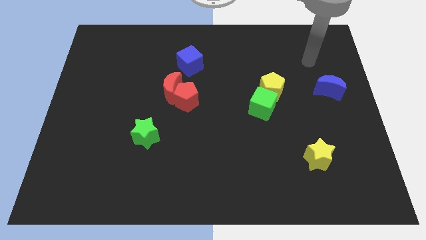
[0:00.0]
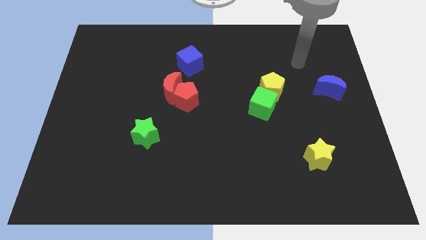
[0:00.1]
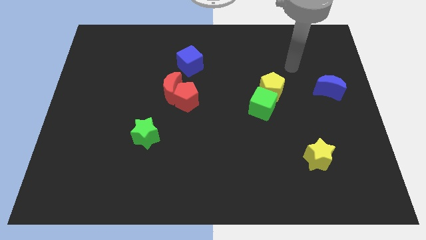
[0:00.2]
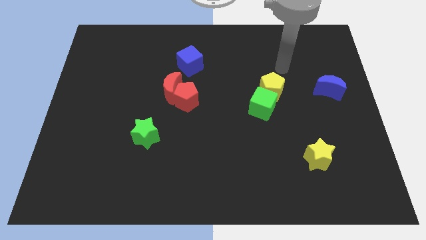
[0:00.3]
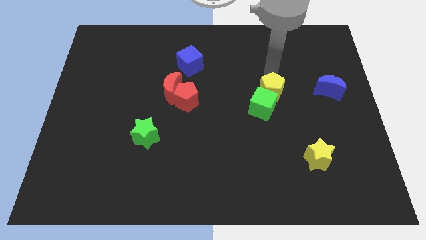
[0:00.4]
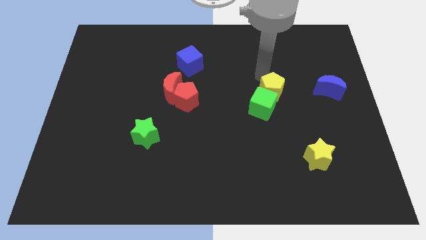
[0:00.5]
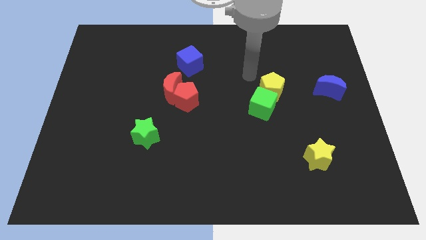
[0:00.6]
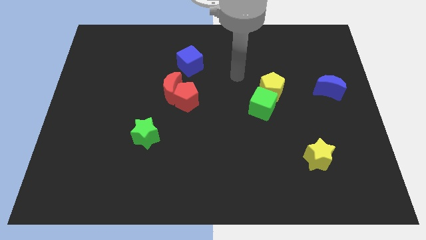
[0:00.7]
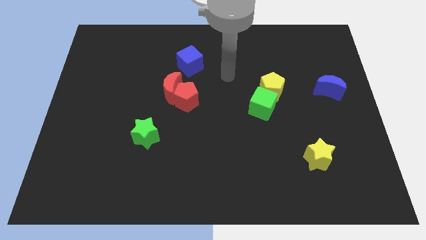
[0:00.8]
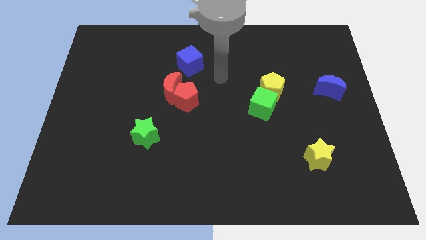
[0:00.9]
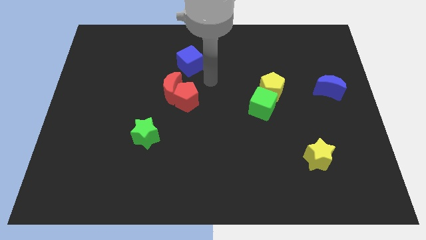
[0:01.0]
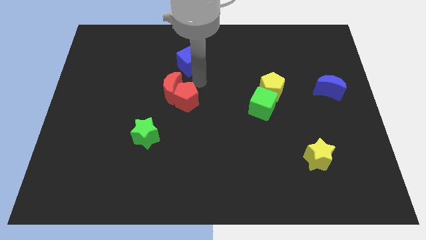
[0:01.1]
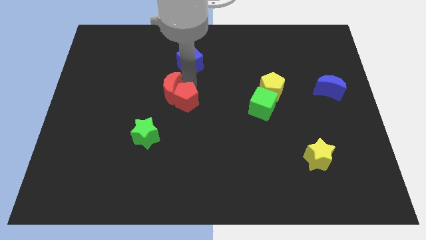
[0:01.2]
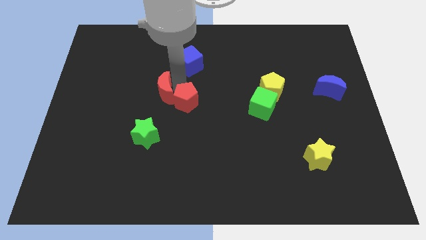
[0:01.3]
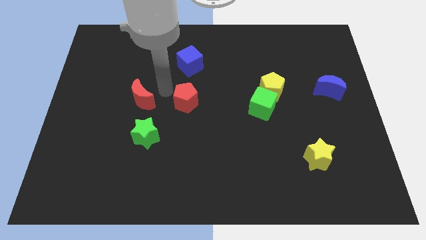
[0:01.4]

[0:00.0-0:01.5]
move the red pentagon away from the red moon

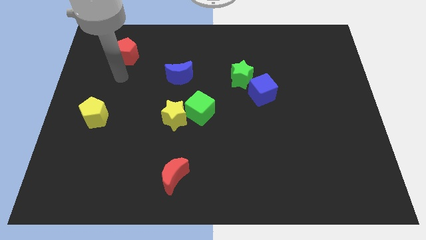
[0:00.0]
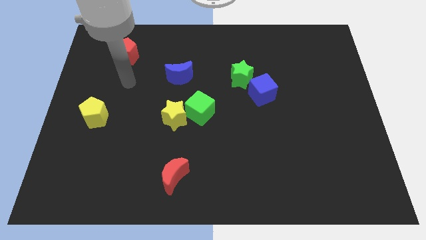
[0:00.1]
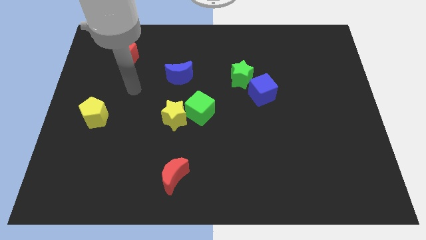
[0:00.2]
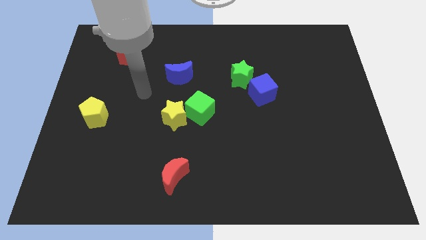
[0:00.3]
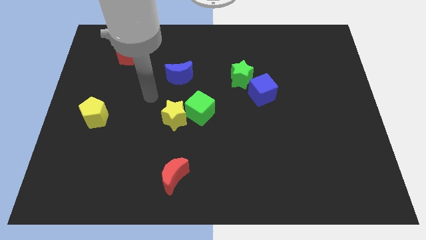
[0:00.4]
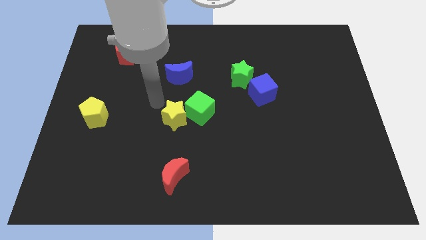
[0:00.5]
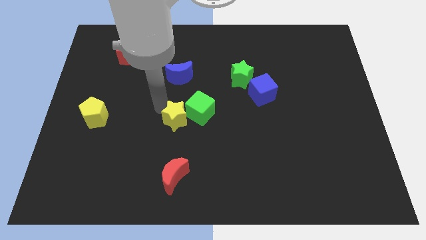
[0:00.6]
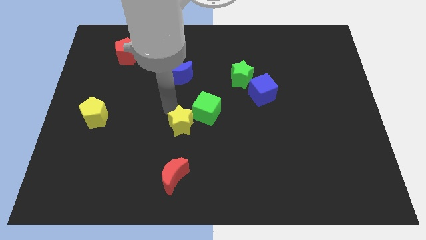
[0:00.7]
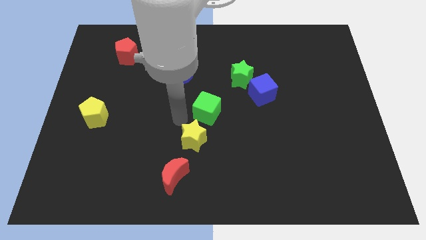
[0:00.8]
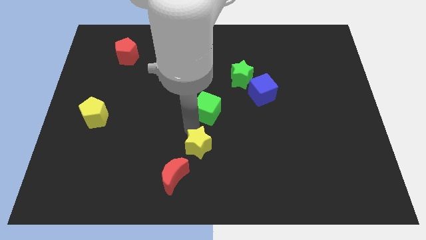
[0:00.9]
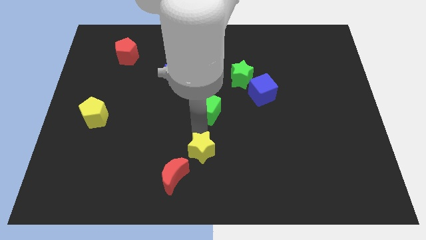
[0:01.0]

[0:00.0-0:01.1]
move the green cube away from the yellow star

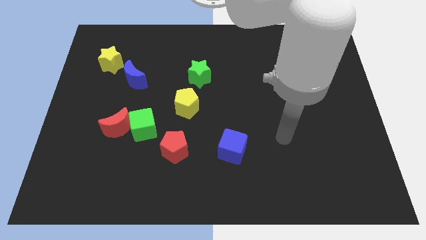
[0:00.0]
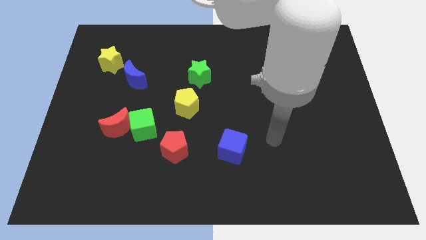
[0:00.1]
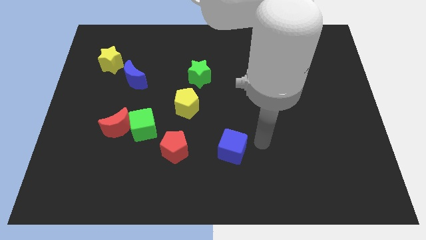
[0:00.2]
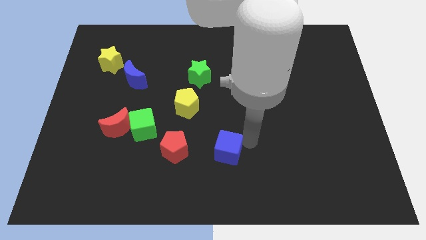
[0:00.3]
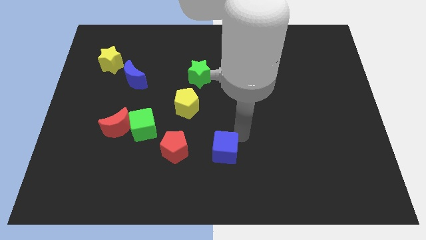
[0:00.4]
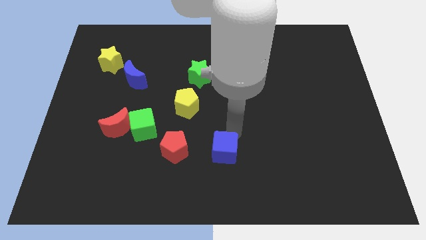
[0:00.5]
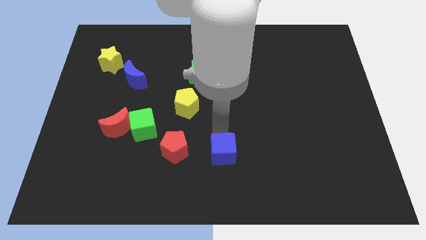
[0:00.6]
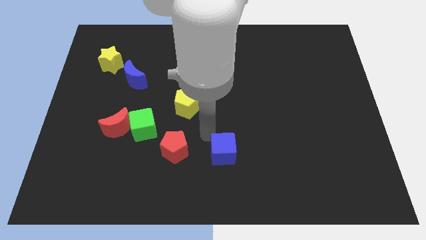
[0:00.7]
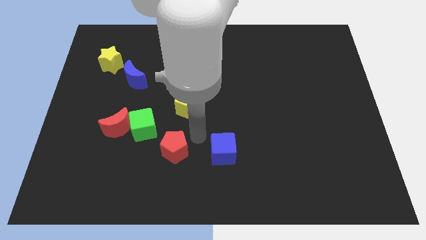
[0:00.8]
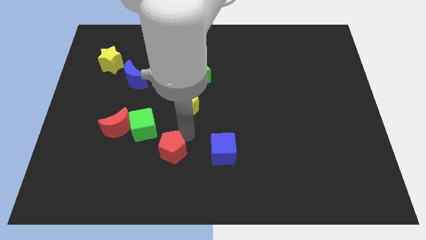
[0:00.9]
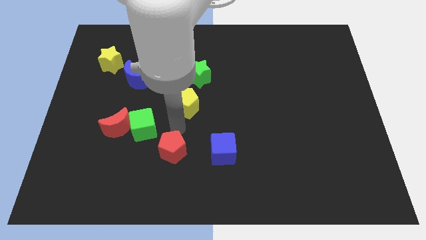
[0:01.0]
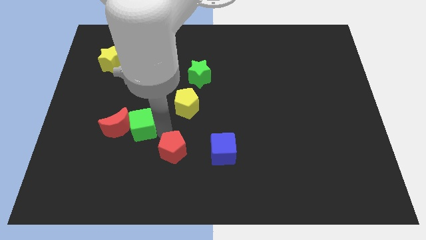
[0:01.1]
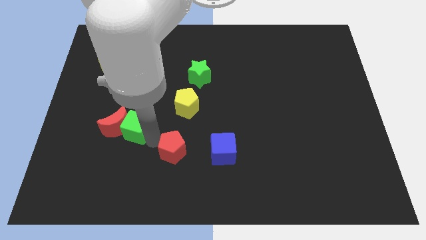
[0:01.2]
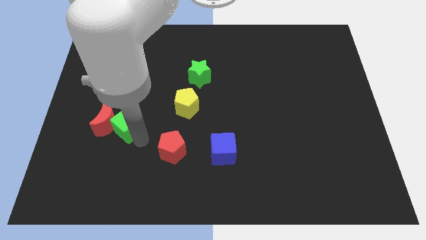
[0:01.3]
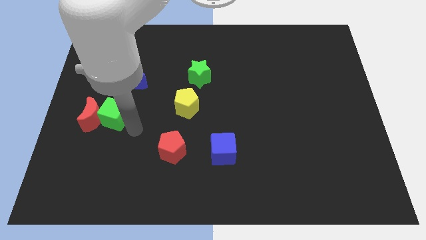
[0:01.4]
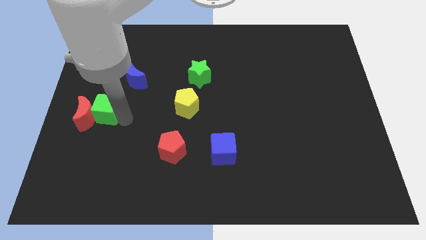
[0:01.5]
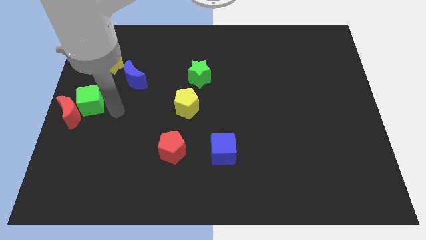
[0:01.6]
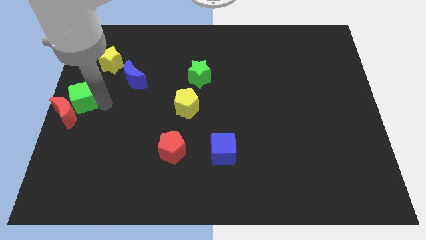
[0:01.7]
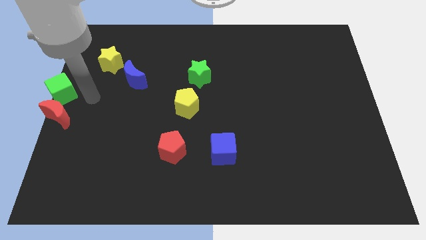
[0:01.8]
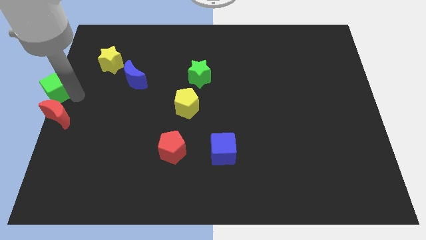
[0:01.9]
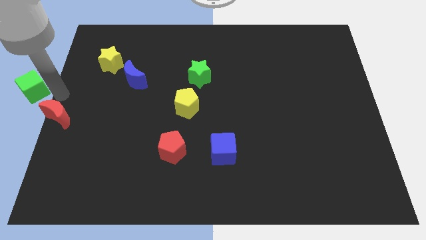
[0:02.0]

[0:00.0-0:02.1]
separate the red moon from the green cube

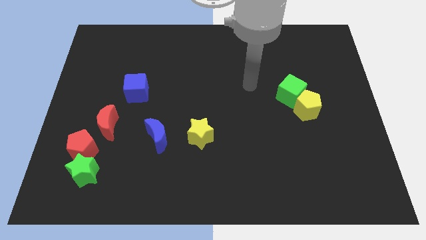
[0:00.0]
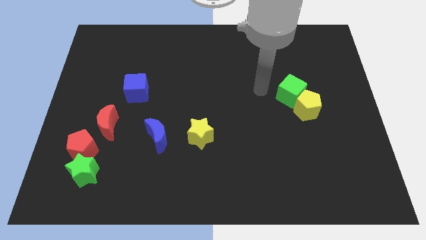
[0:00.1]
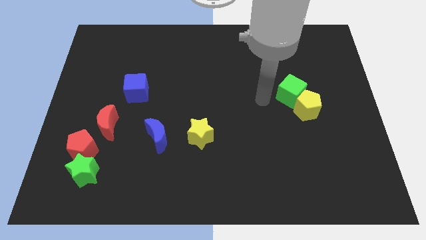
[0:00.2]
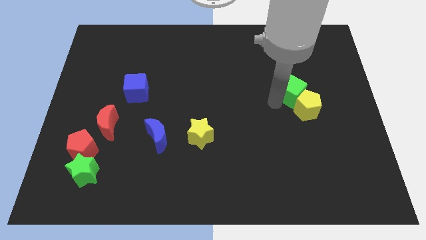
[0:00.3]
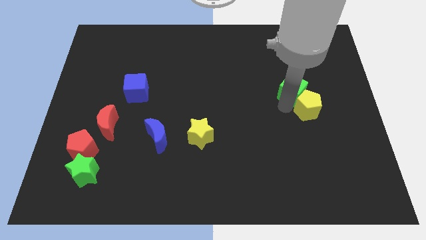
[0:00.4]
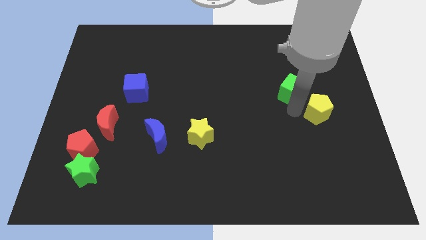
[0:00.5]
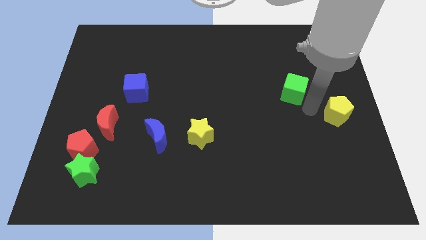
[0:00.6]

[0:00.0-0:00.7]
pull the green cube apart from the yellow pentagon

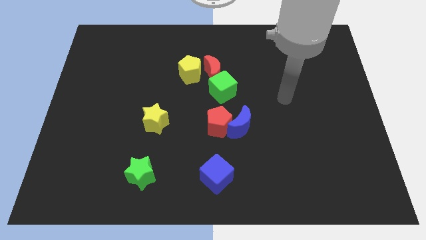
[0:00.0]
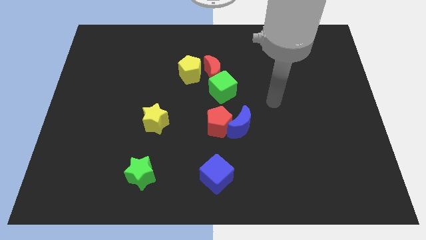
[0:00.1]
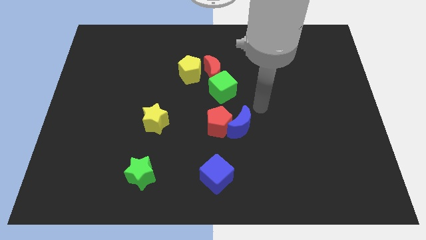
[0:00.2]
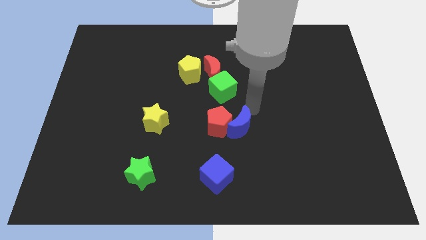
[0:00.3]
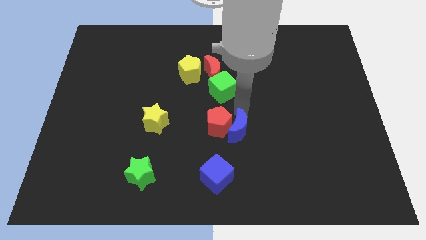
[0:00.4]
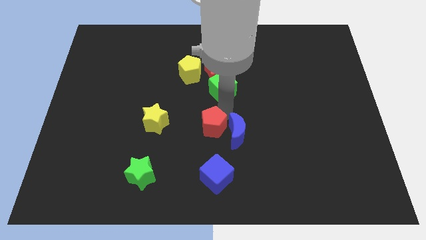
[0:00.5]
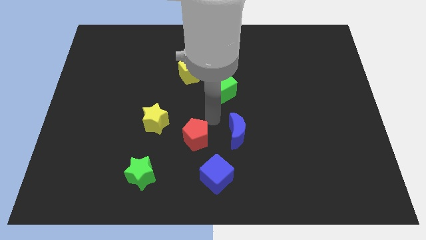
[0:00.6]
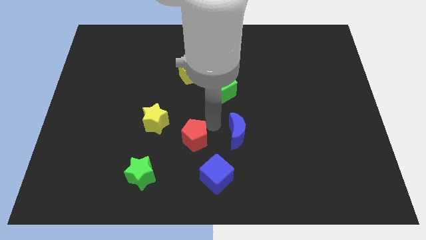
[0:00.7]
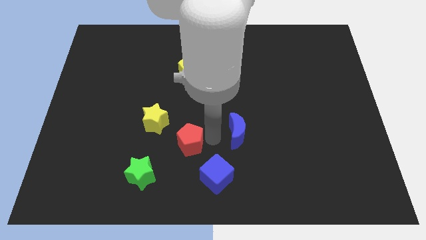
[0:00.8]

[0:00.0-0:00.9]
separate the blue moon from the red pentagon

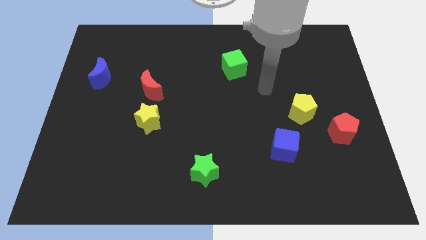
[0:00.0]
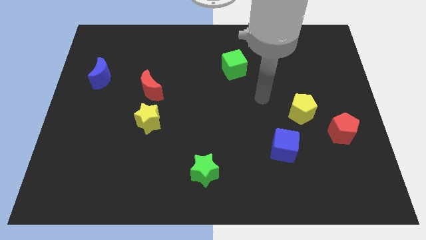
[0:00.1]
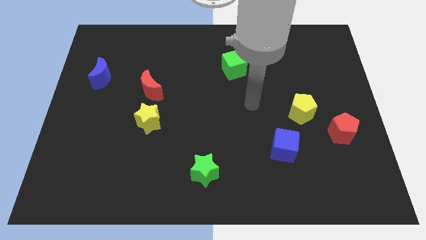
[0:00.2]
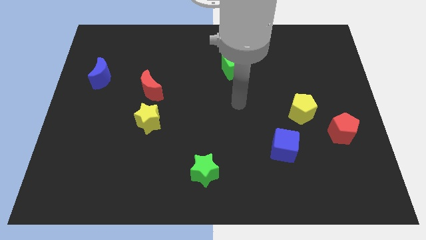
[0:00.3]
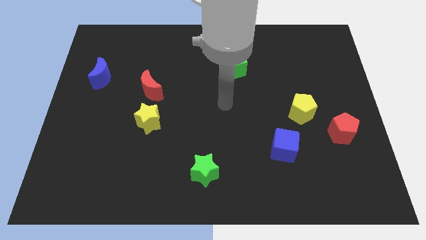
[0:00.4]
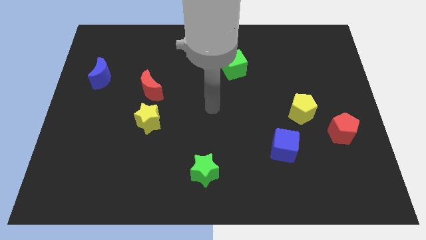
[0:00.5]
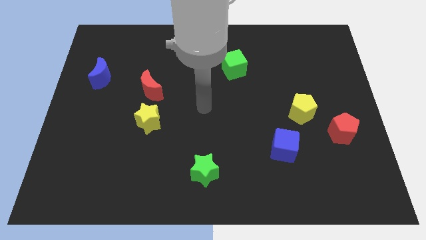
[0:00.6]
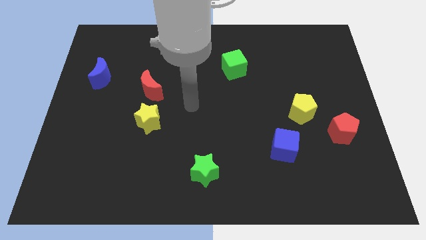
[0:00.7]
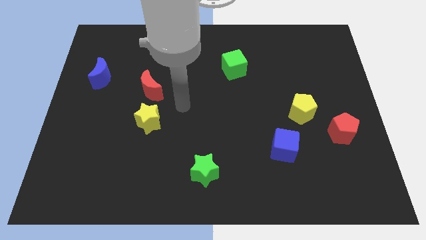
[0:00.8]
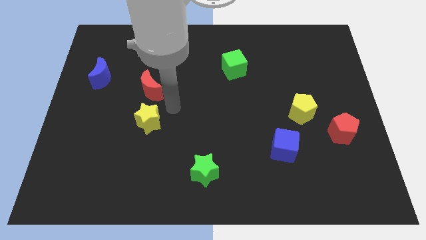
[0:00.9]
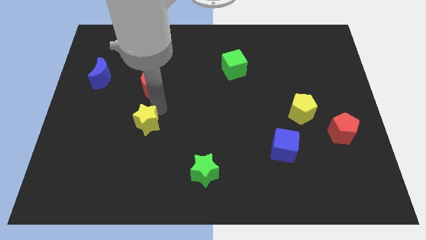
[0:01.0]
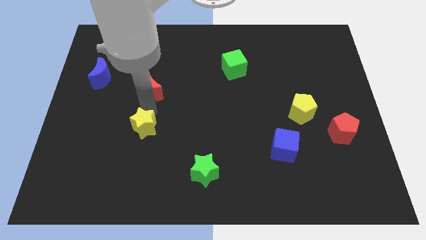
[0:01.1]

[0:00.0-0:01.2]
separate the red moon from the yellow star

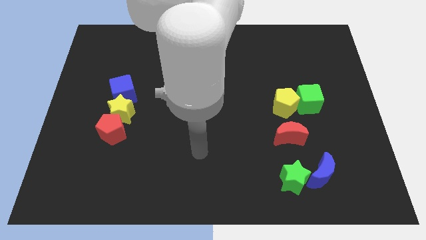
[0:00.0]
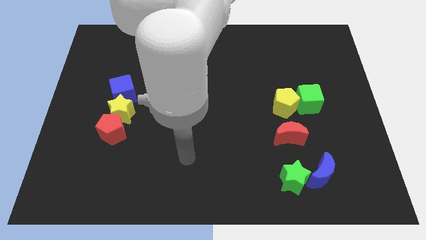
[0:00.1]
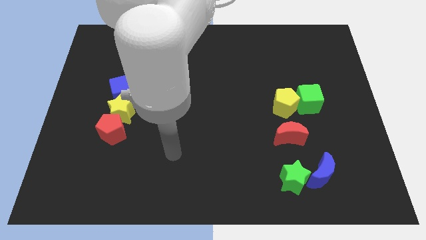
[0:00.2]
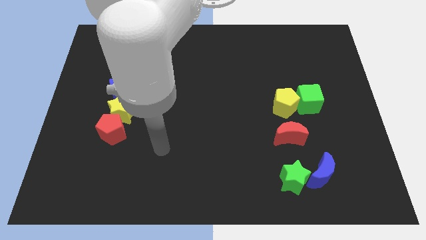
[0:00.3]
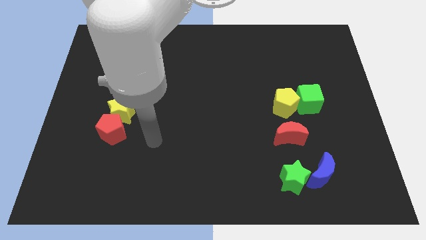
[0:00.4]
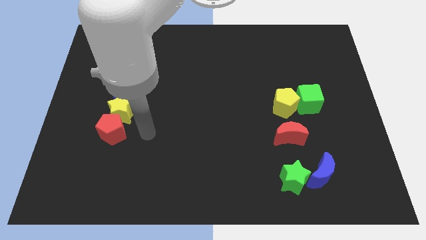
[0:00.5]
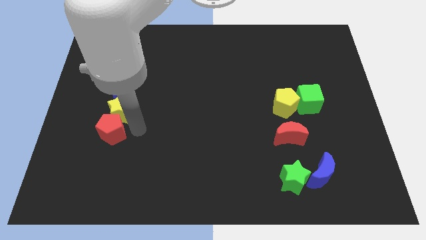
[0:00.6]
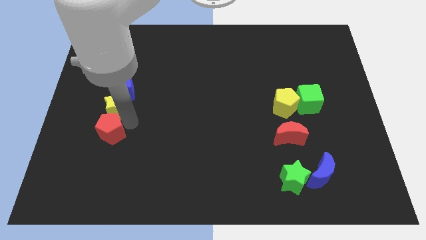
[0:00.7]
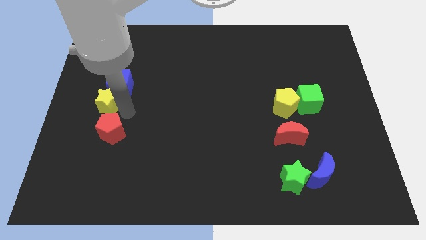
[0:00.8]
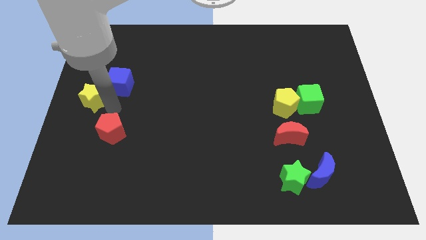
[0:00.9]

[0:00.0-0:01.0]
separate the red pentagon from the yellow star

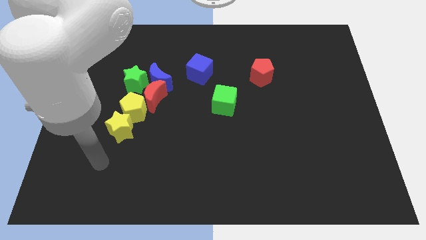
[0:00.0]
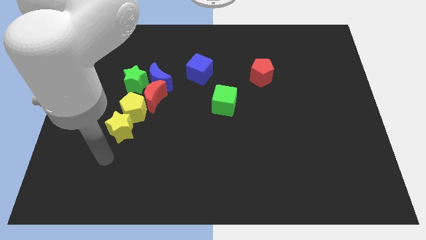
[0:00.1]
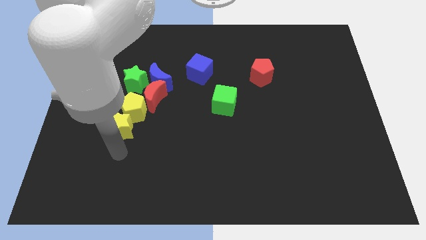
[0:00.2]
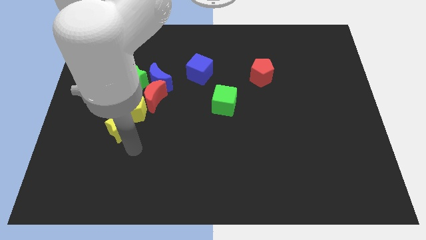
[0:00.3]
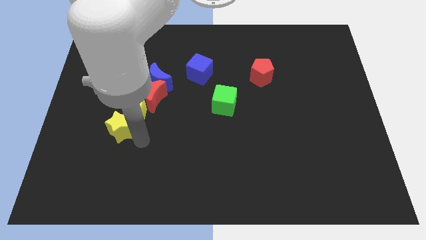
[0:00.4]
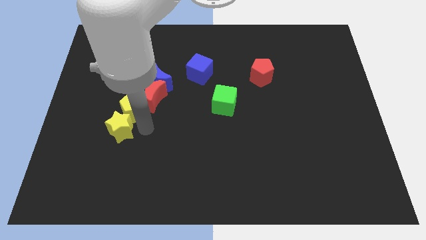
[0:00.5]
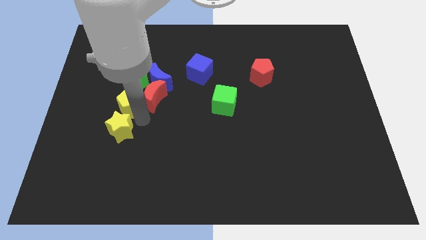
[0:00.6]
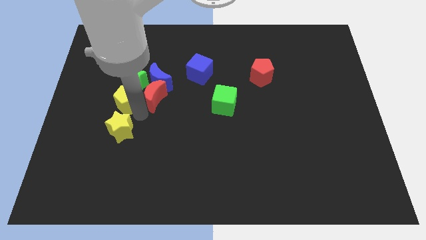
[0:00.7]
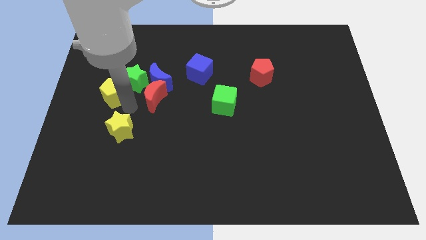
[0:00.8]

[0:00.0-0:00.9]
move the yellow star away from the yellow pentagon

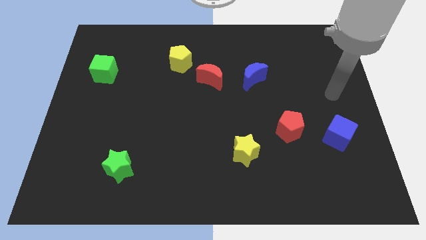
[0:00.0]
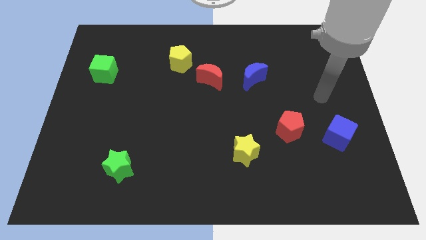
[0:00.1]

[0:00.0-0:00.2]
move the red moon away from the yellow pentagon
